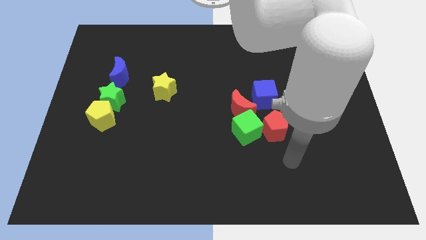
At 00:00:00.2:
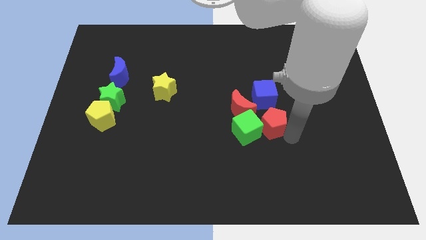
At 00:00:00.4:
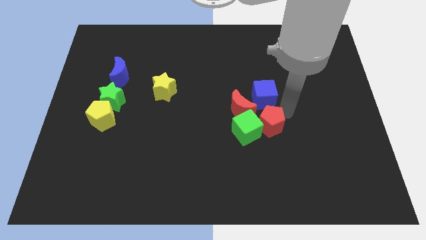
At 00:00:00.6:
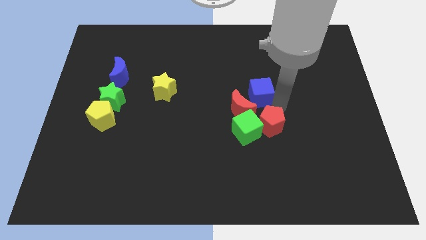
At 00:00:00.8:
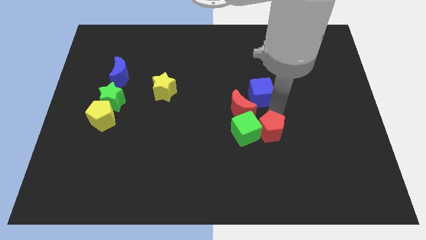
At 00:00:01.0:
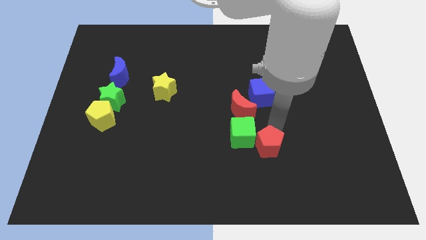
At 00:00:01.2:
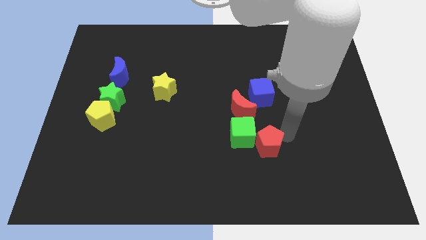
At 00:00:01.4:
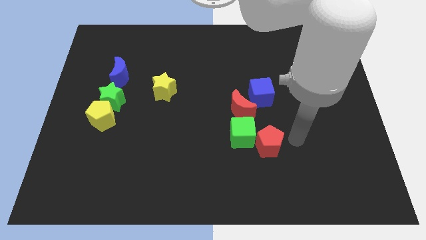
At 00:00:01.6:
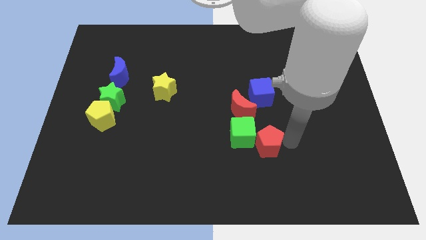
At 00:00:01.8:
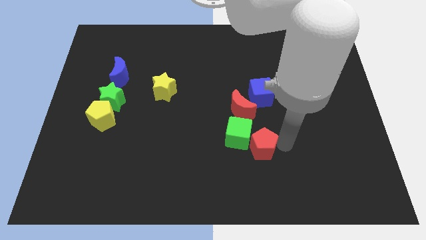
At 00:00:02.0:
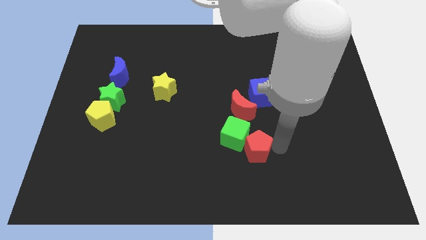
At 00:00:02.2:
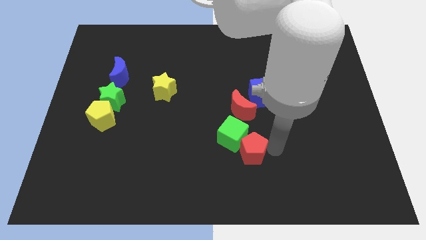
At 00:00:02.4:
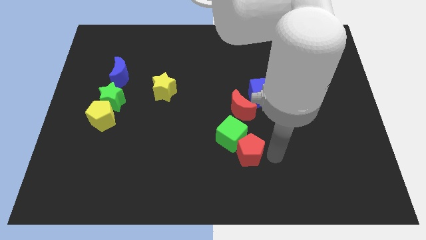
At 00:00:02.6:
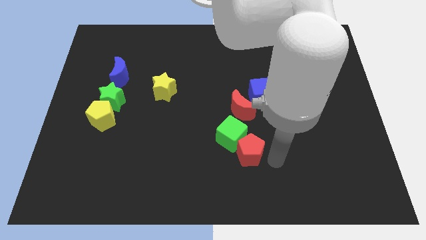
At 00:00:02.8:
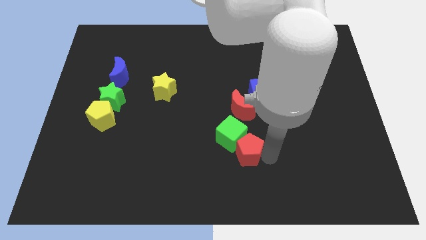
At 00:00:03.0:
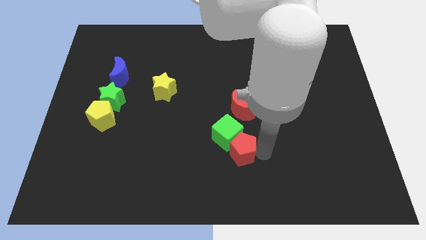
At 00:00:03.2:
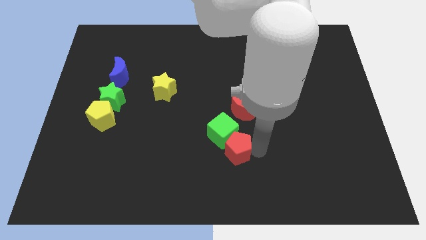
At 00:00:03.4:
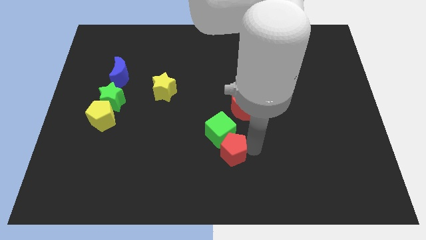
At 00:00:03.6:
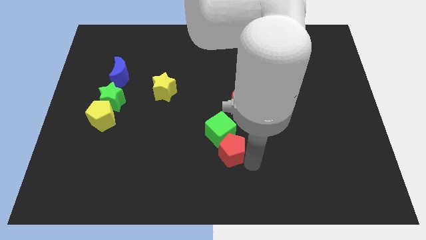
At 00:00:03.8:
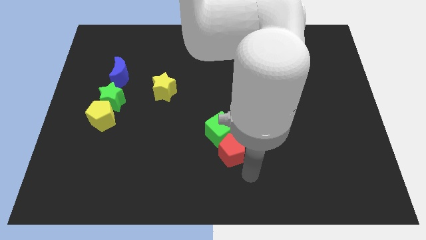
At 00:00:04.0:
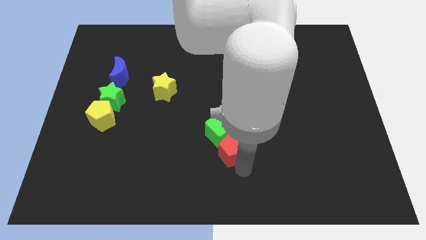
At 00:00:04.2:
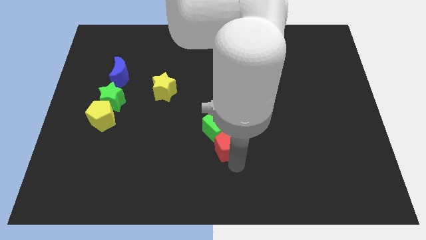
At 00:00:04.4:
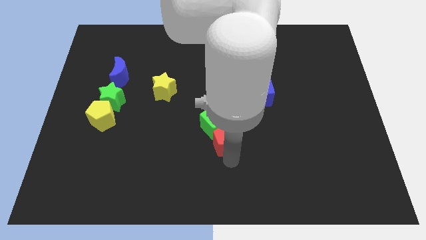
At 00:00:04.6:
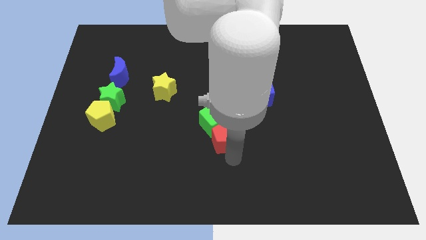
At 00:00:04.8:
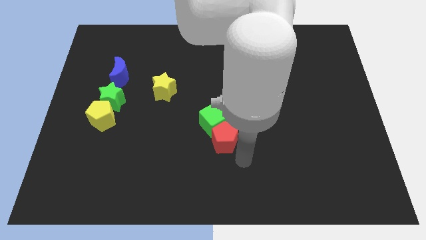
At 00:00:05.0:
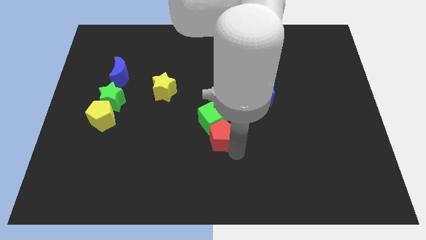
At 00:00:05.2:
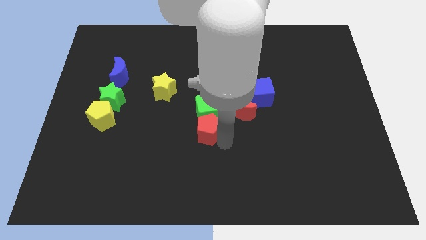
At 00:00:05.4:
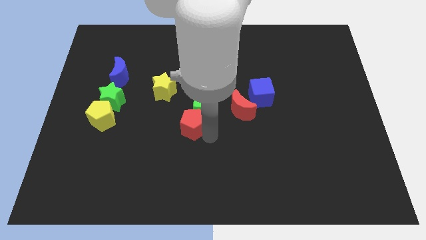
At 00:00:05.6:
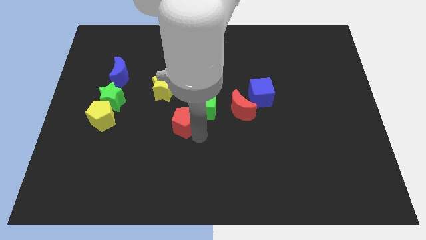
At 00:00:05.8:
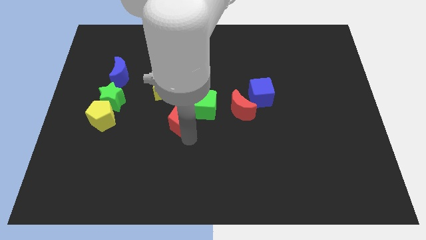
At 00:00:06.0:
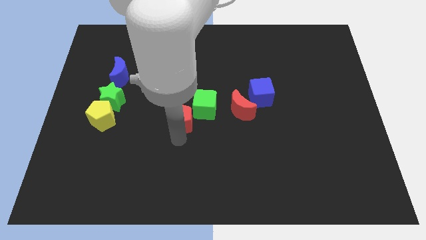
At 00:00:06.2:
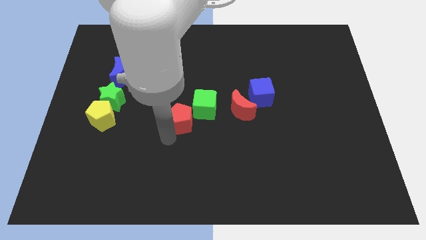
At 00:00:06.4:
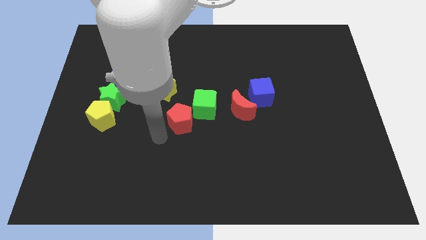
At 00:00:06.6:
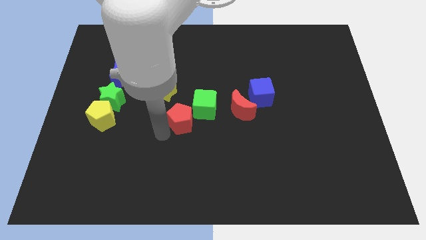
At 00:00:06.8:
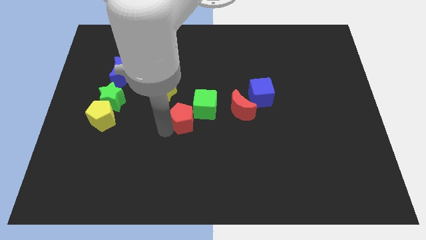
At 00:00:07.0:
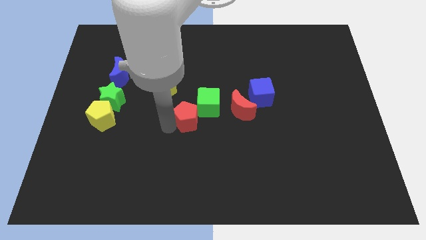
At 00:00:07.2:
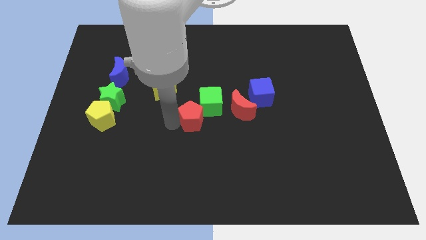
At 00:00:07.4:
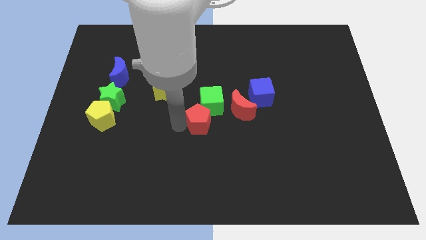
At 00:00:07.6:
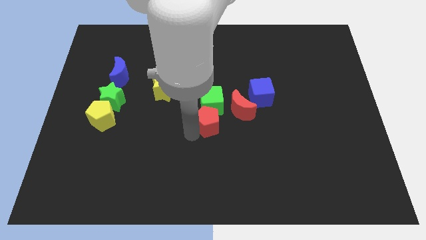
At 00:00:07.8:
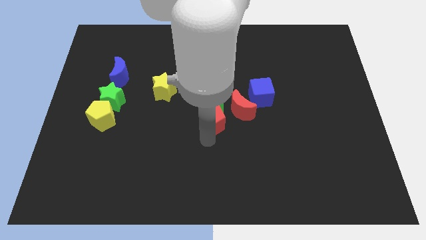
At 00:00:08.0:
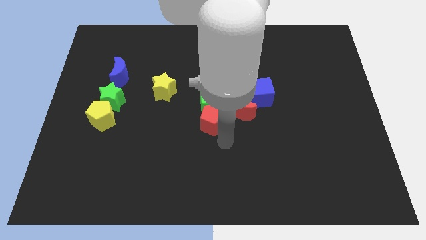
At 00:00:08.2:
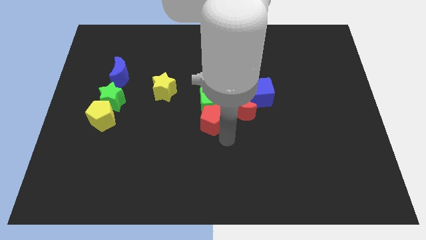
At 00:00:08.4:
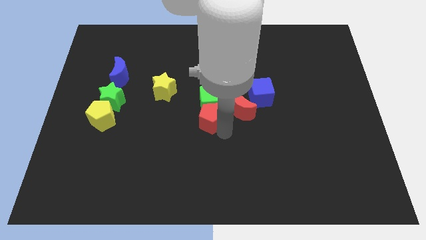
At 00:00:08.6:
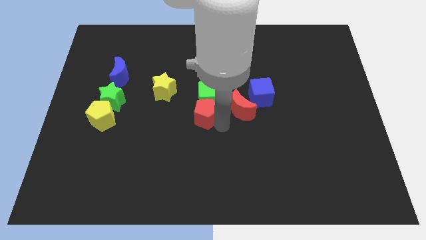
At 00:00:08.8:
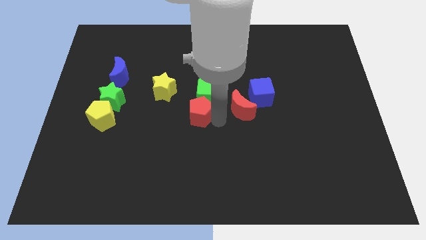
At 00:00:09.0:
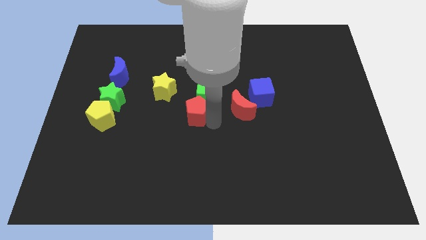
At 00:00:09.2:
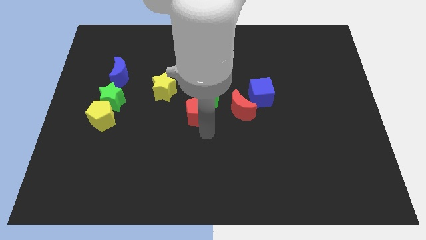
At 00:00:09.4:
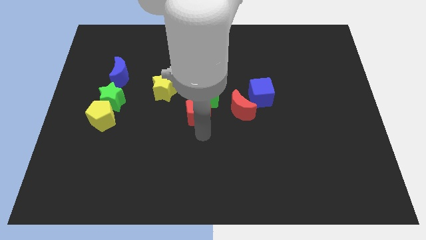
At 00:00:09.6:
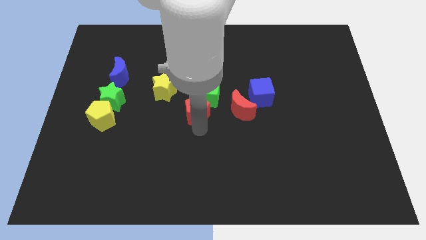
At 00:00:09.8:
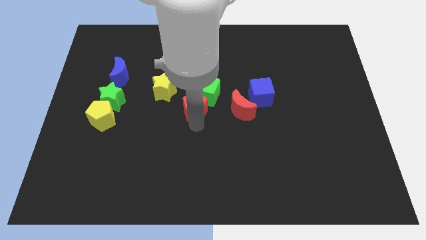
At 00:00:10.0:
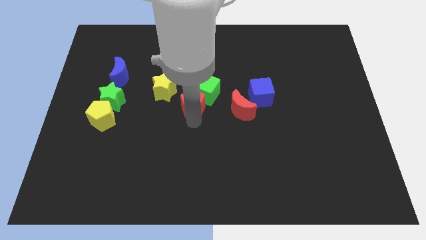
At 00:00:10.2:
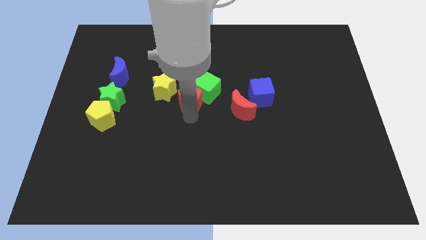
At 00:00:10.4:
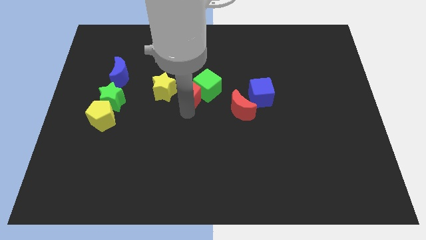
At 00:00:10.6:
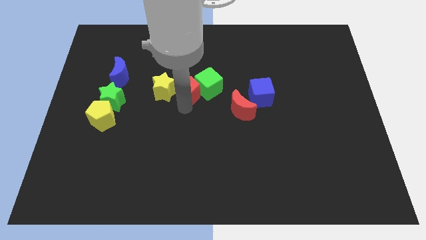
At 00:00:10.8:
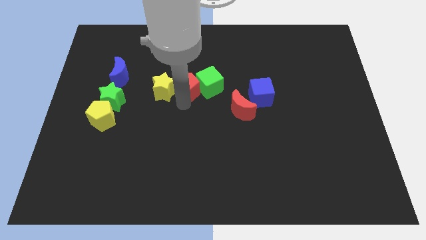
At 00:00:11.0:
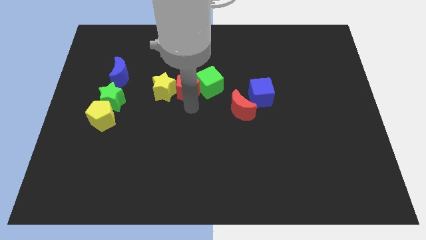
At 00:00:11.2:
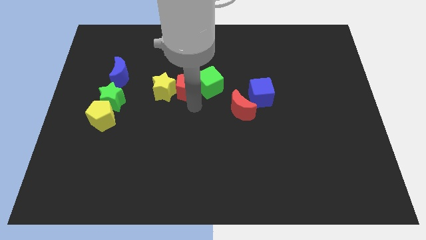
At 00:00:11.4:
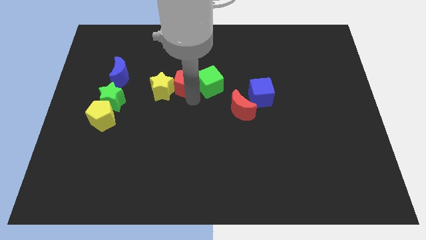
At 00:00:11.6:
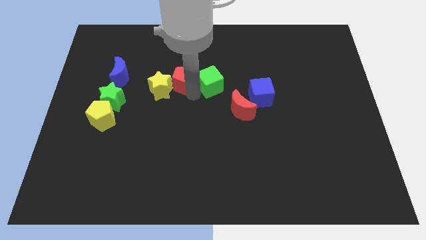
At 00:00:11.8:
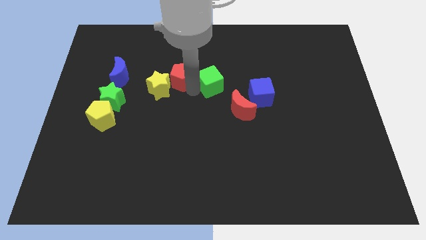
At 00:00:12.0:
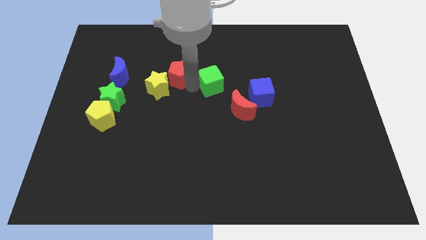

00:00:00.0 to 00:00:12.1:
move the red pentagon above the yellow star
